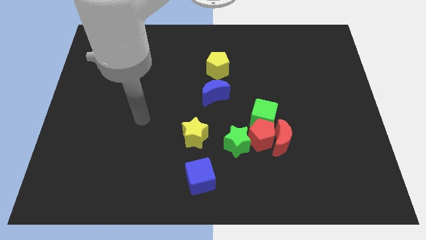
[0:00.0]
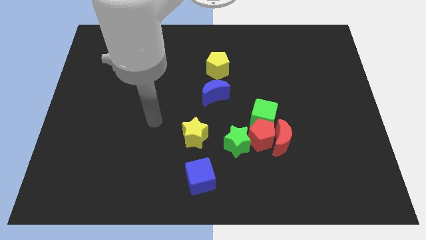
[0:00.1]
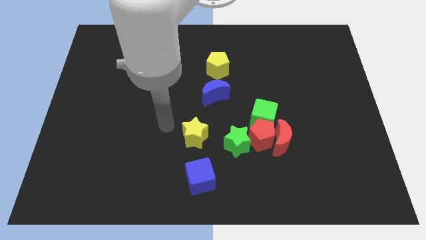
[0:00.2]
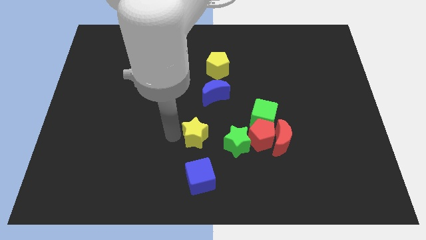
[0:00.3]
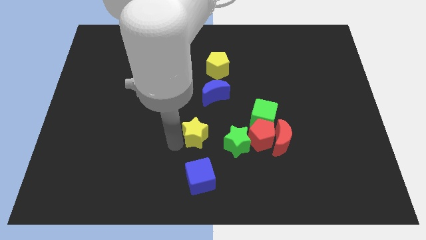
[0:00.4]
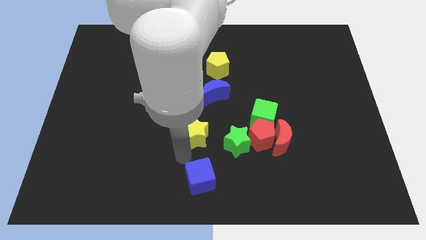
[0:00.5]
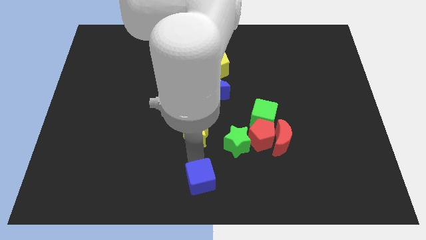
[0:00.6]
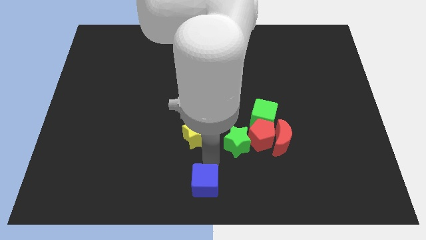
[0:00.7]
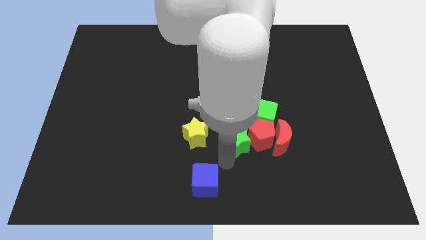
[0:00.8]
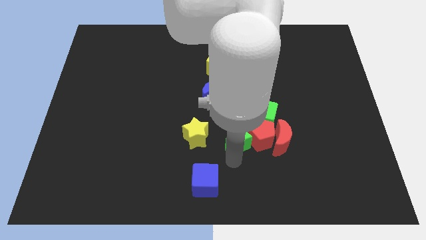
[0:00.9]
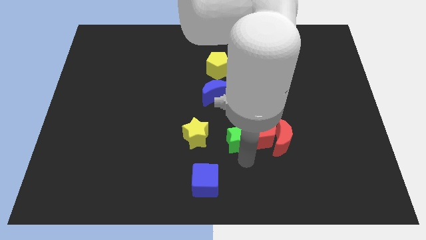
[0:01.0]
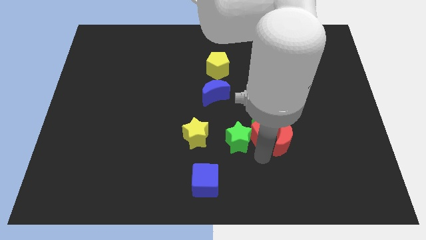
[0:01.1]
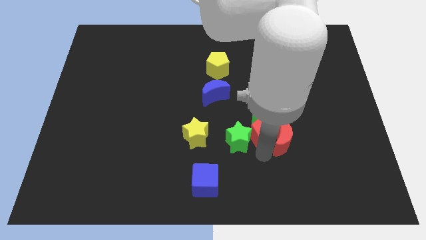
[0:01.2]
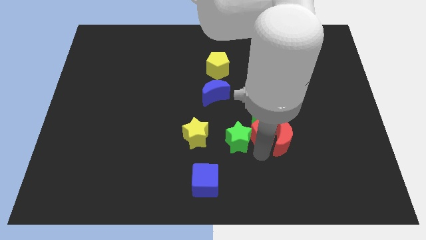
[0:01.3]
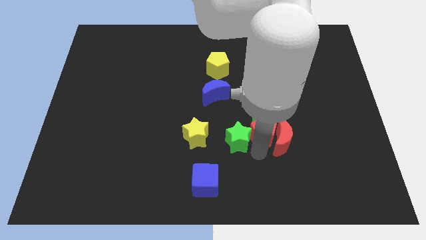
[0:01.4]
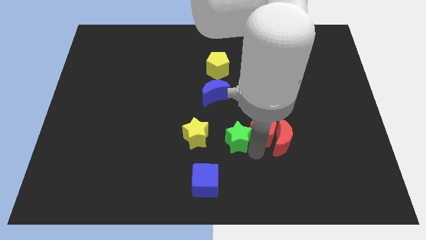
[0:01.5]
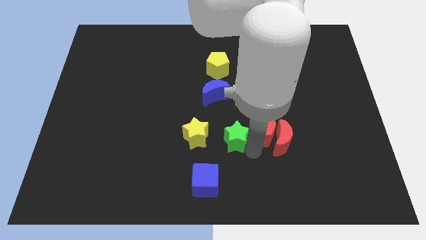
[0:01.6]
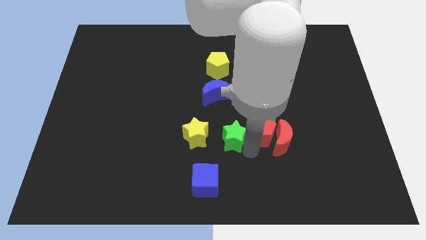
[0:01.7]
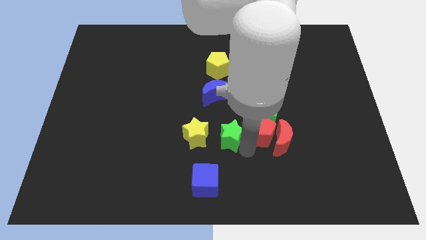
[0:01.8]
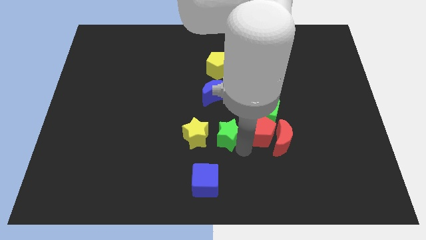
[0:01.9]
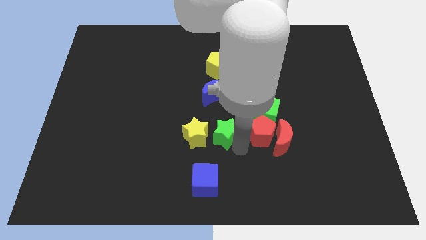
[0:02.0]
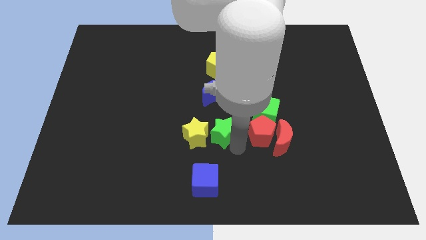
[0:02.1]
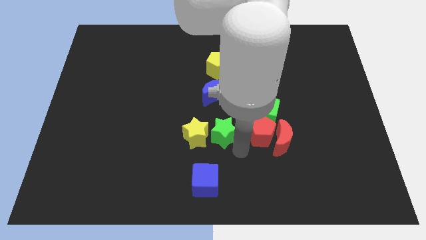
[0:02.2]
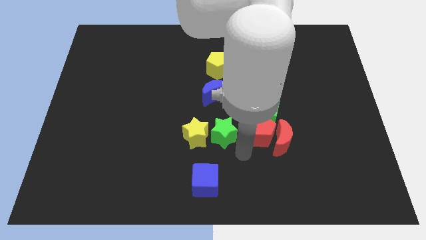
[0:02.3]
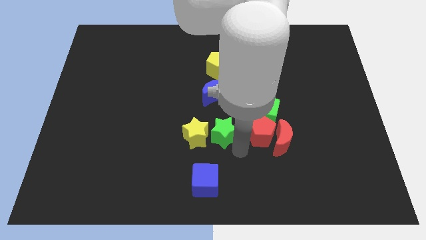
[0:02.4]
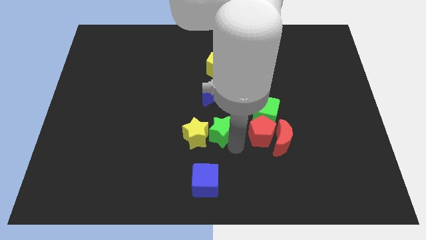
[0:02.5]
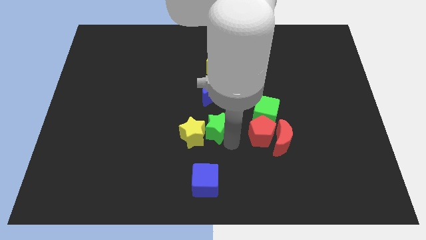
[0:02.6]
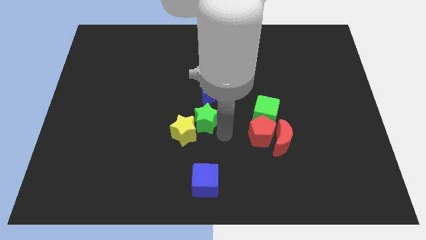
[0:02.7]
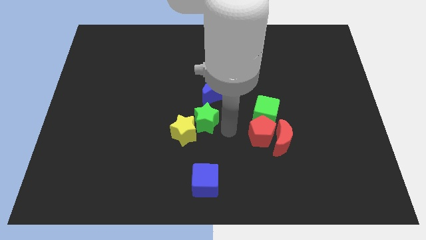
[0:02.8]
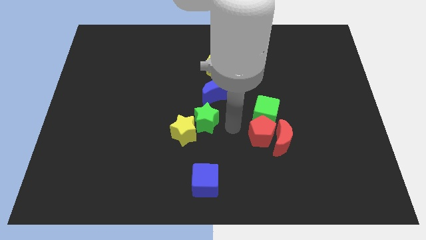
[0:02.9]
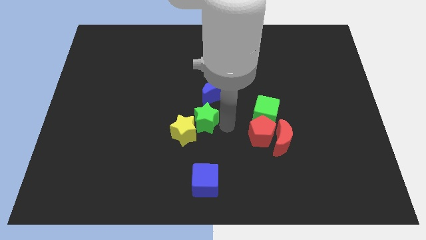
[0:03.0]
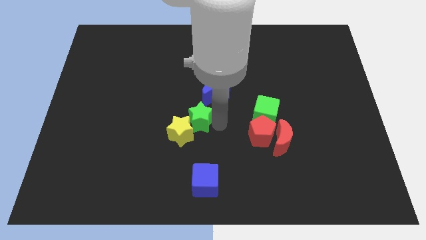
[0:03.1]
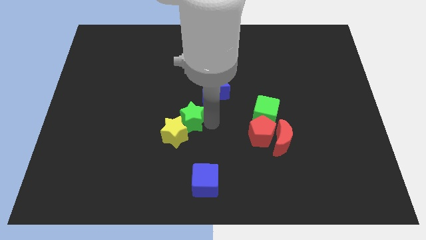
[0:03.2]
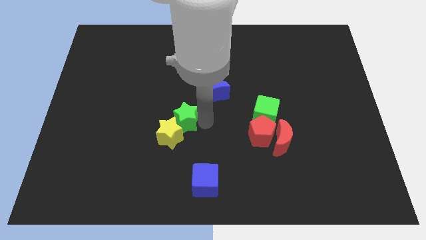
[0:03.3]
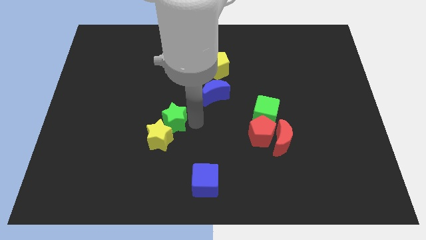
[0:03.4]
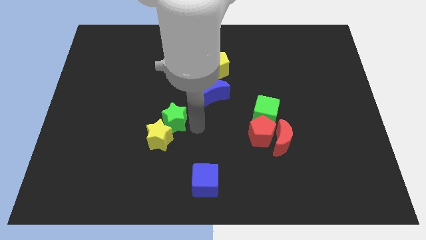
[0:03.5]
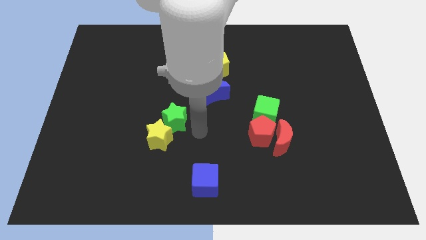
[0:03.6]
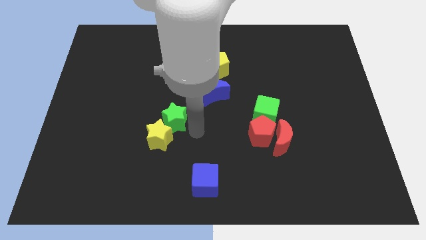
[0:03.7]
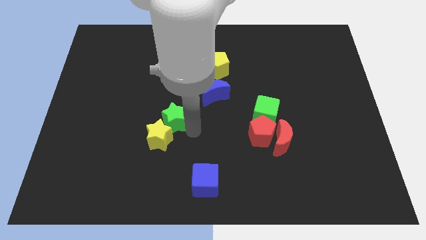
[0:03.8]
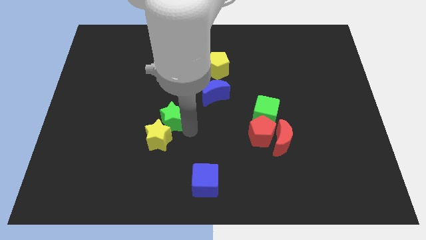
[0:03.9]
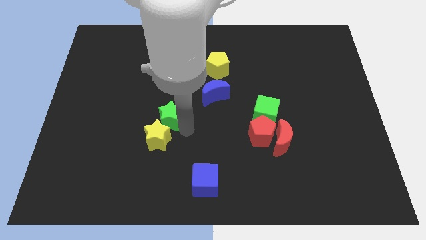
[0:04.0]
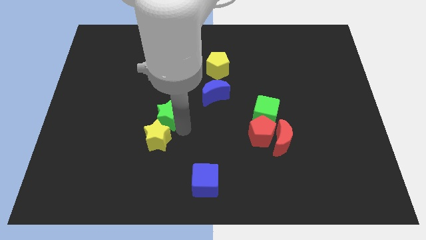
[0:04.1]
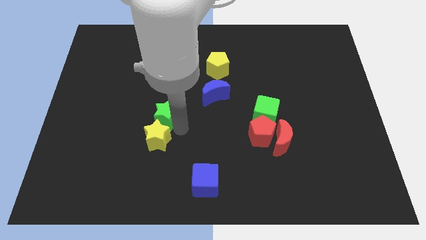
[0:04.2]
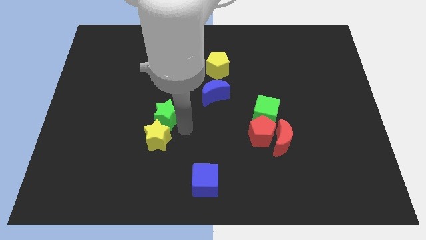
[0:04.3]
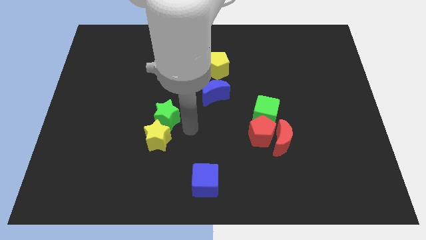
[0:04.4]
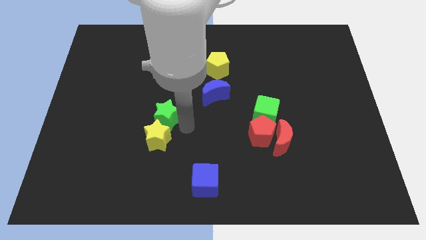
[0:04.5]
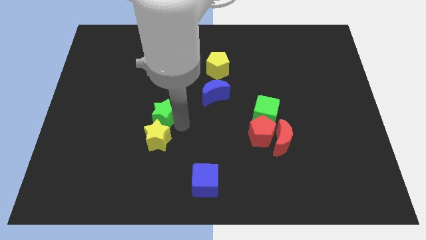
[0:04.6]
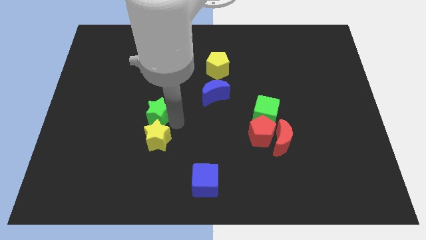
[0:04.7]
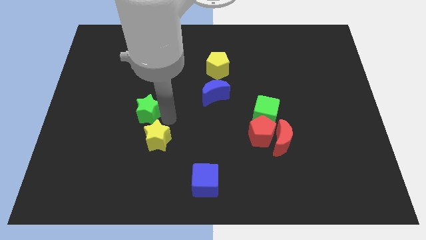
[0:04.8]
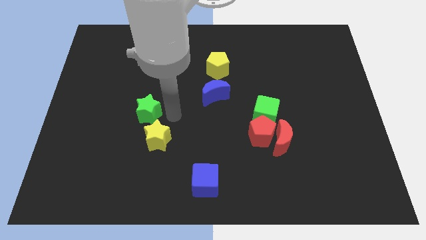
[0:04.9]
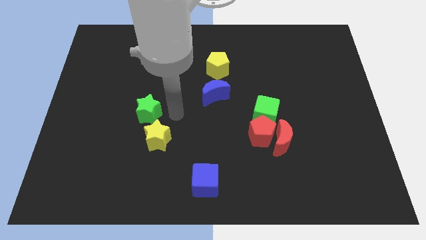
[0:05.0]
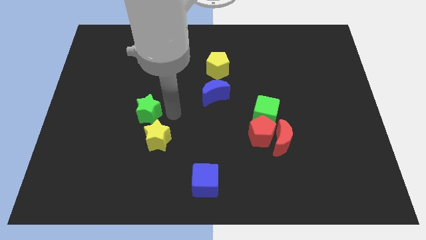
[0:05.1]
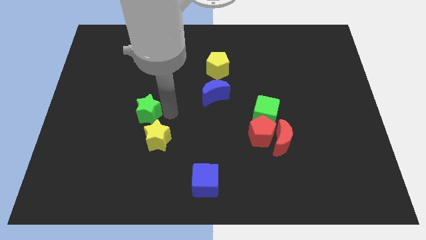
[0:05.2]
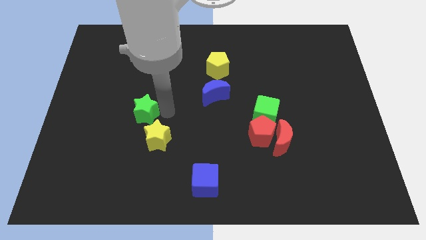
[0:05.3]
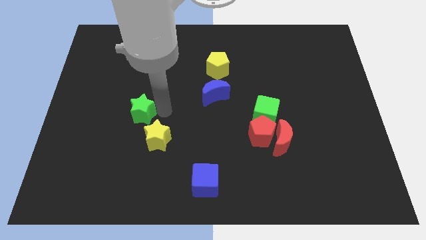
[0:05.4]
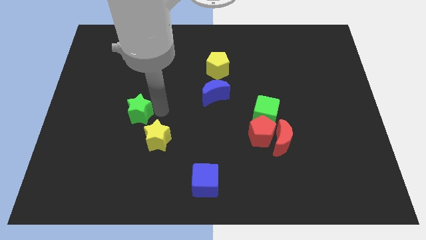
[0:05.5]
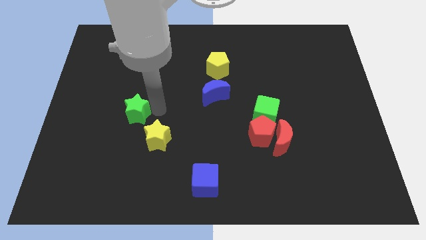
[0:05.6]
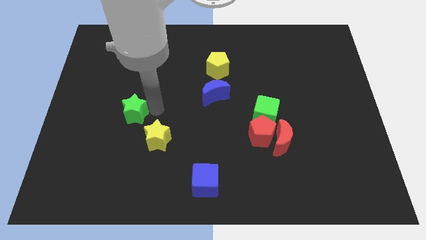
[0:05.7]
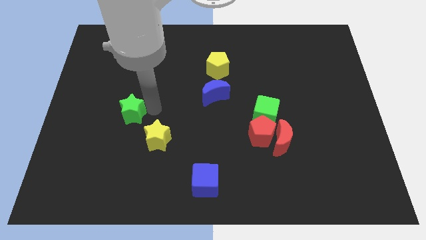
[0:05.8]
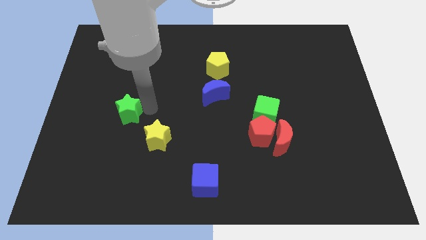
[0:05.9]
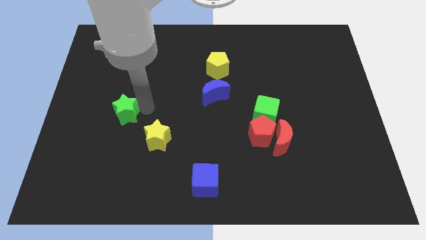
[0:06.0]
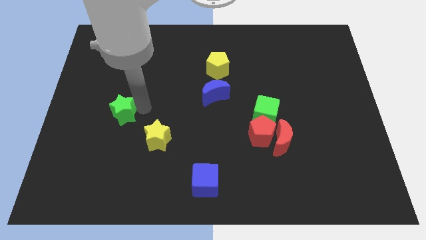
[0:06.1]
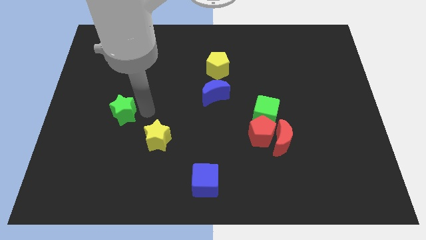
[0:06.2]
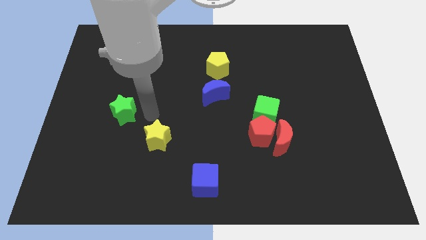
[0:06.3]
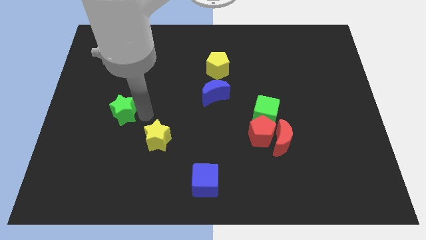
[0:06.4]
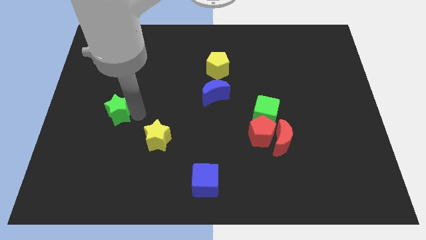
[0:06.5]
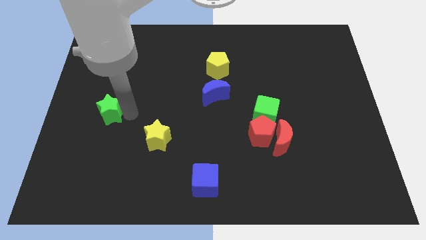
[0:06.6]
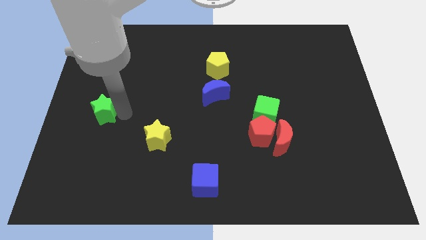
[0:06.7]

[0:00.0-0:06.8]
put the green star to the left side

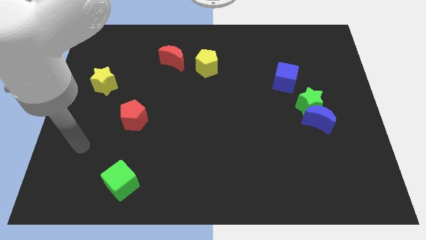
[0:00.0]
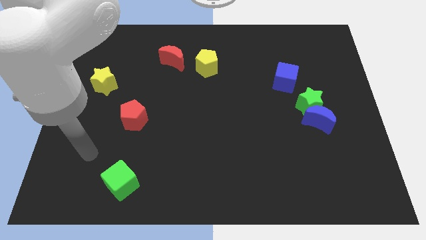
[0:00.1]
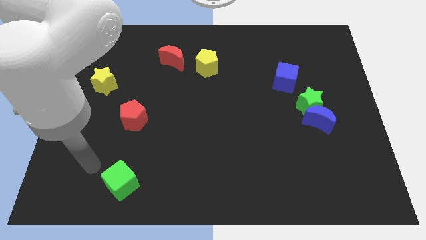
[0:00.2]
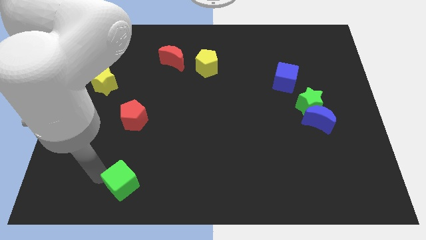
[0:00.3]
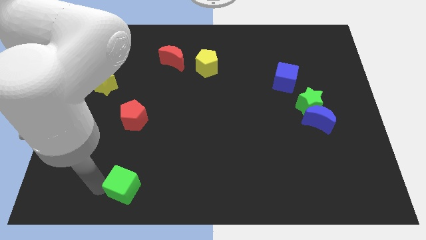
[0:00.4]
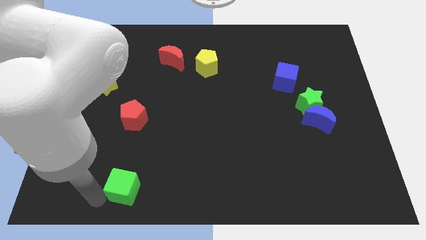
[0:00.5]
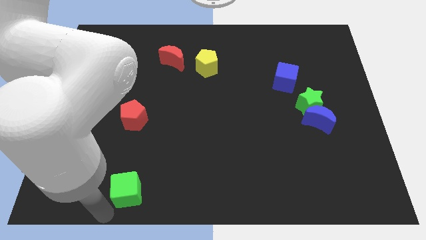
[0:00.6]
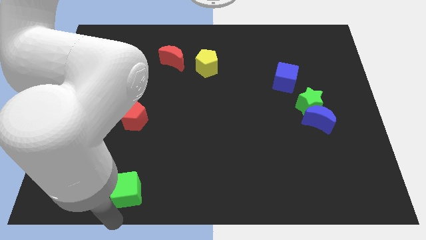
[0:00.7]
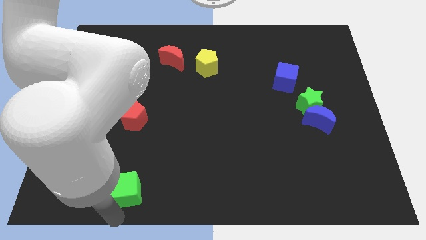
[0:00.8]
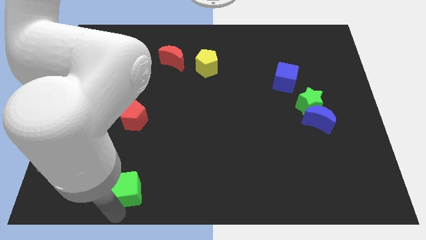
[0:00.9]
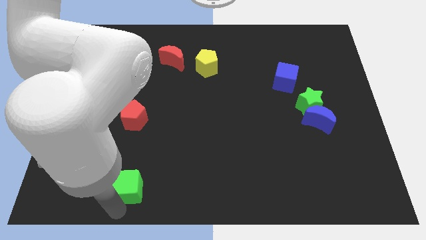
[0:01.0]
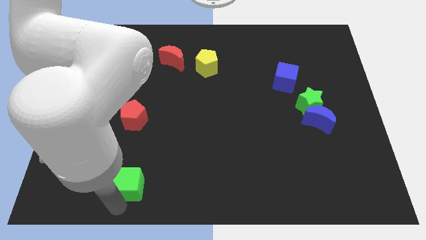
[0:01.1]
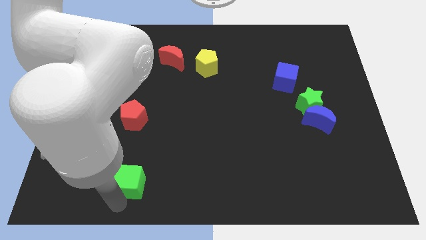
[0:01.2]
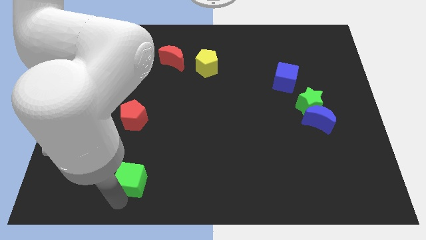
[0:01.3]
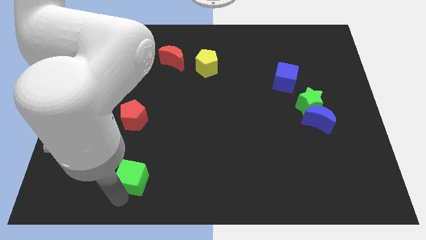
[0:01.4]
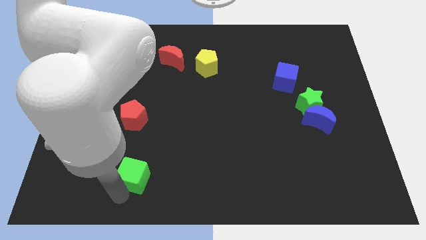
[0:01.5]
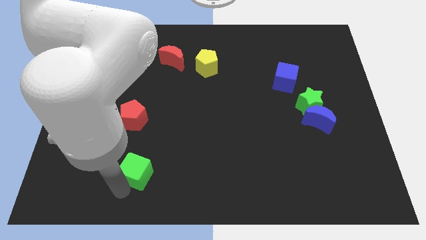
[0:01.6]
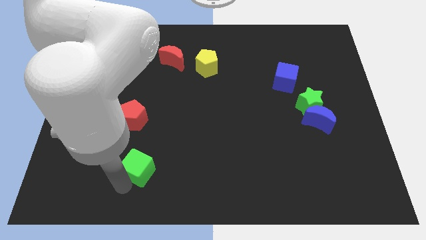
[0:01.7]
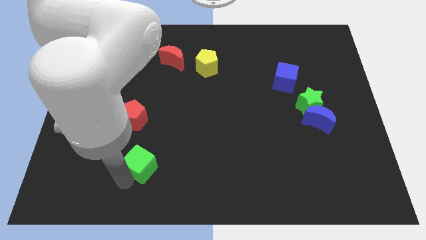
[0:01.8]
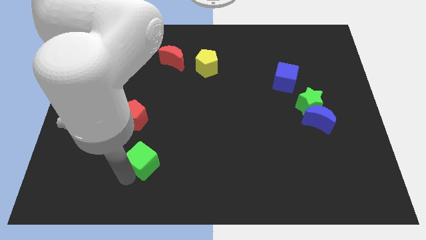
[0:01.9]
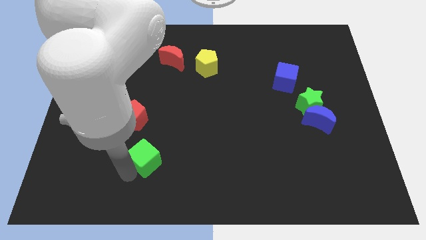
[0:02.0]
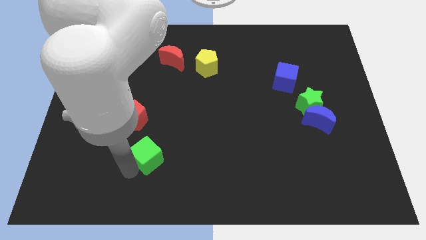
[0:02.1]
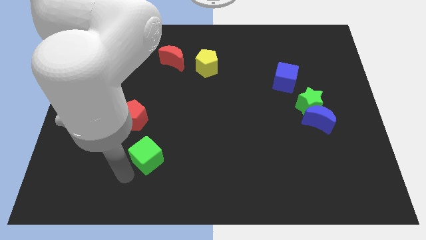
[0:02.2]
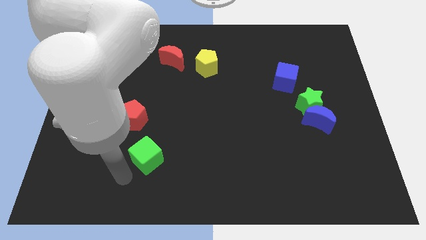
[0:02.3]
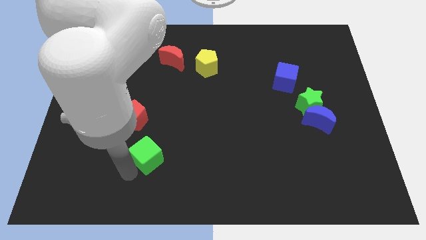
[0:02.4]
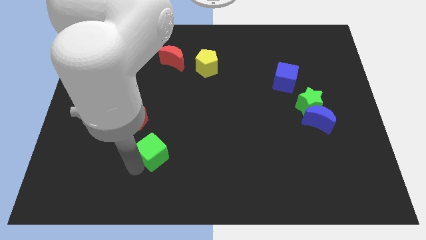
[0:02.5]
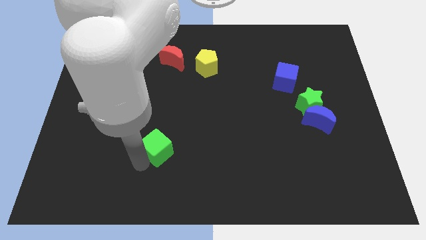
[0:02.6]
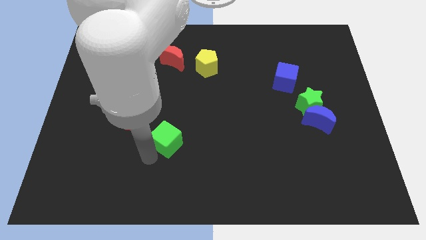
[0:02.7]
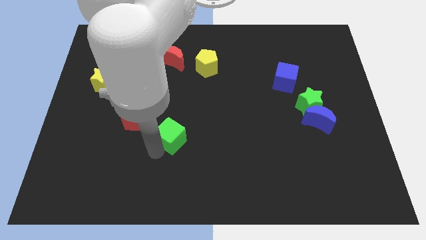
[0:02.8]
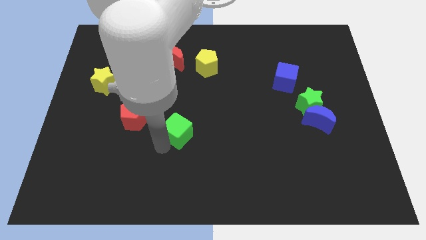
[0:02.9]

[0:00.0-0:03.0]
put the green cube to the center of the board
